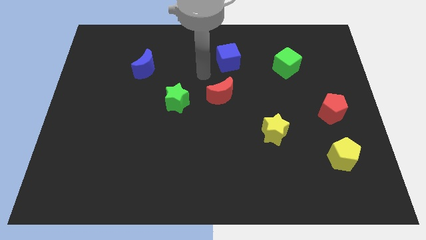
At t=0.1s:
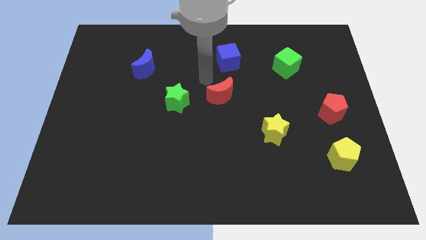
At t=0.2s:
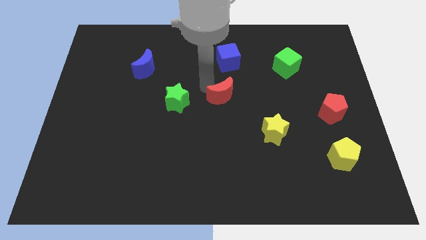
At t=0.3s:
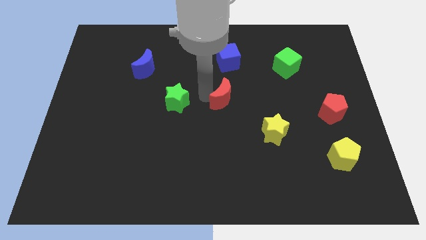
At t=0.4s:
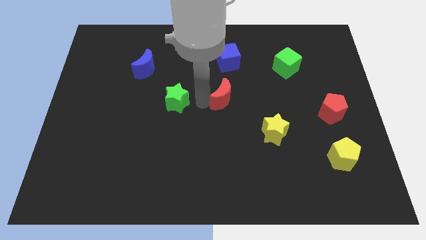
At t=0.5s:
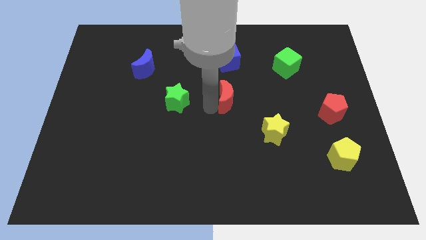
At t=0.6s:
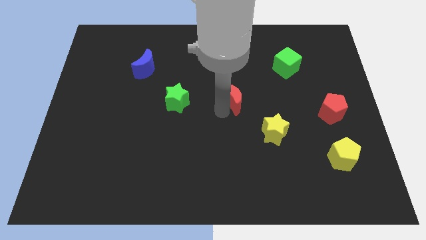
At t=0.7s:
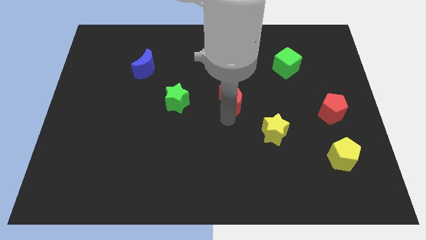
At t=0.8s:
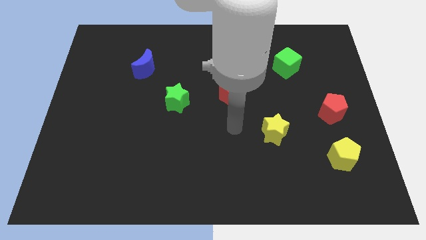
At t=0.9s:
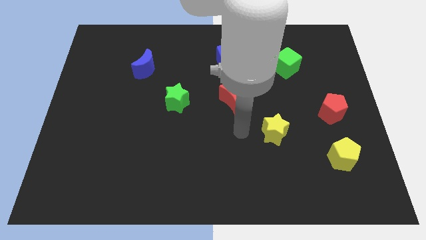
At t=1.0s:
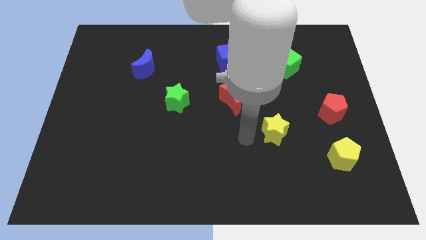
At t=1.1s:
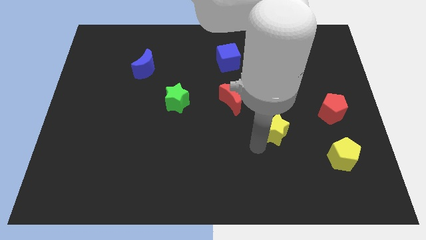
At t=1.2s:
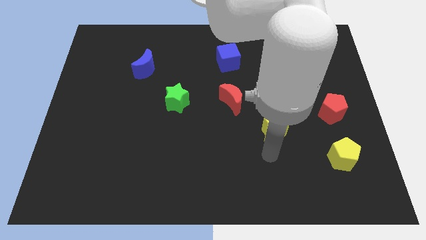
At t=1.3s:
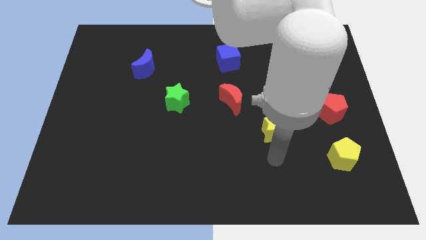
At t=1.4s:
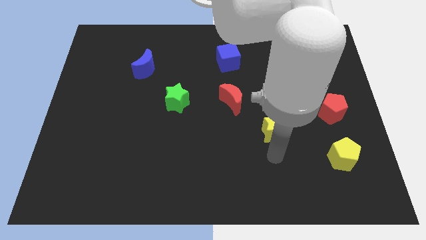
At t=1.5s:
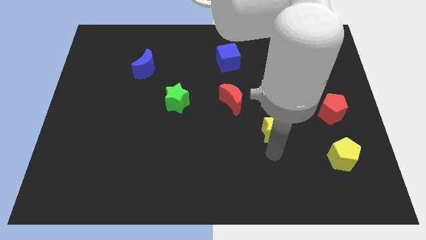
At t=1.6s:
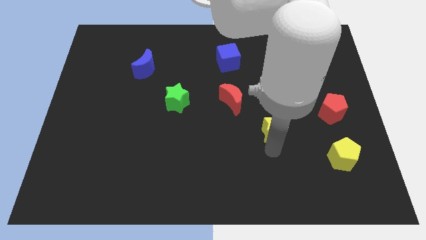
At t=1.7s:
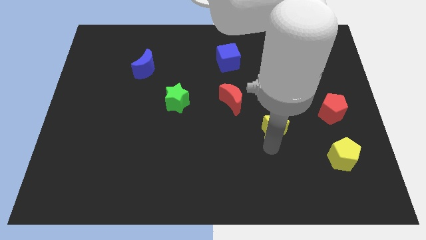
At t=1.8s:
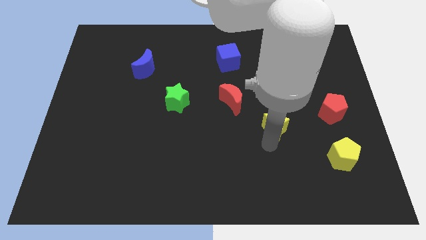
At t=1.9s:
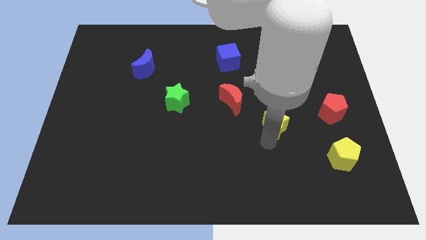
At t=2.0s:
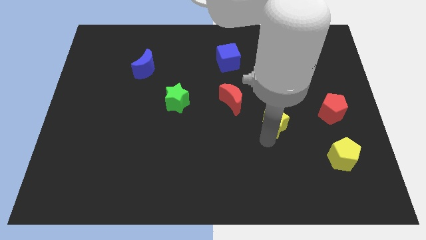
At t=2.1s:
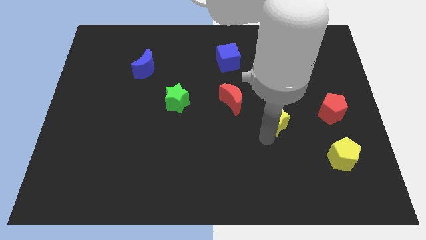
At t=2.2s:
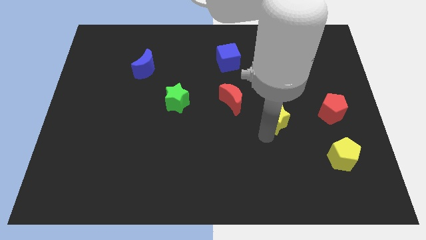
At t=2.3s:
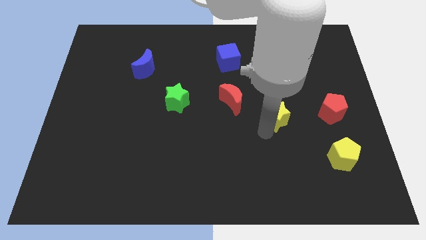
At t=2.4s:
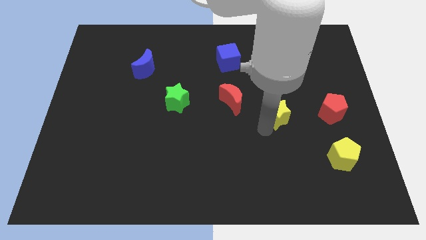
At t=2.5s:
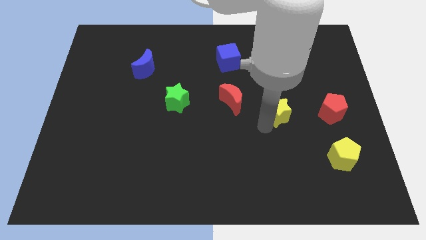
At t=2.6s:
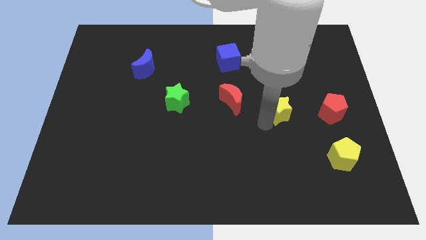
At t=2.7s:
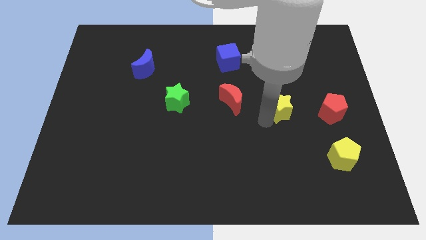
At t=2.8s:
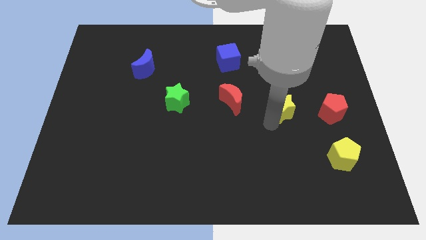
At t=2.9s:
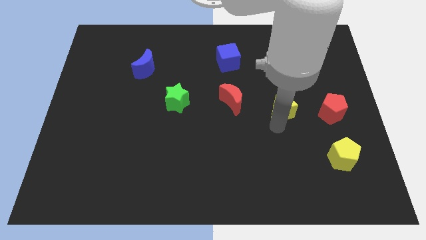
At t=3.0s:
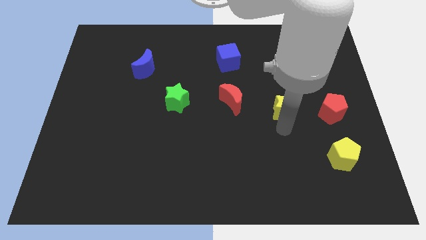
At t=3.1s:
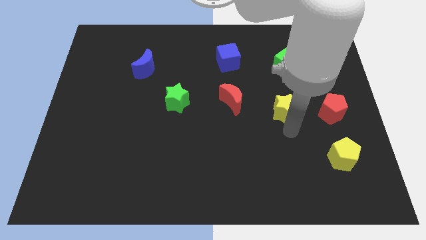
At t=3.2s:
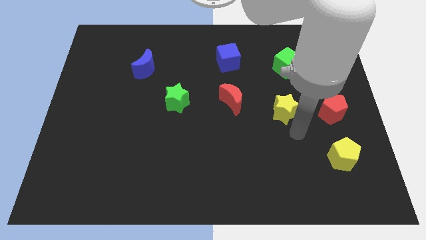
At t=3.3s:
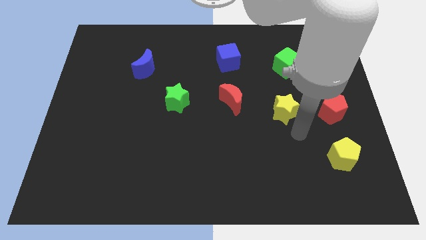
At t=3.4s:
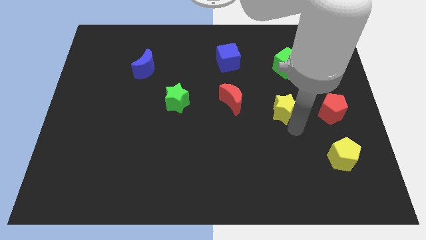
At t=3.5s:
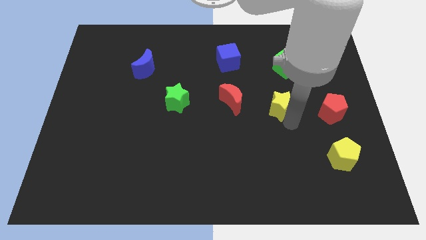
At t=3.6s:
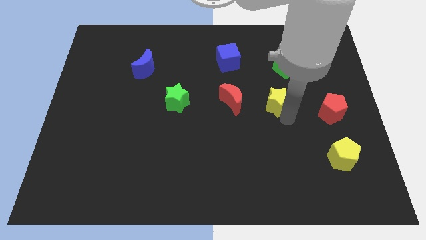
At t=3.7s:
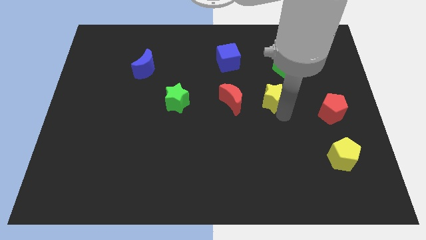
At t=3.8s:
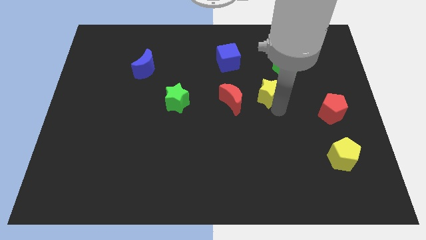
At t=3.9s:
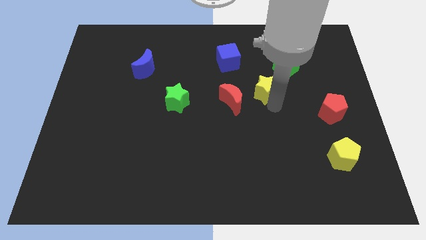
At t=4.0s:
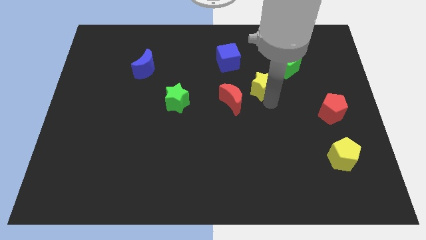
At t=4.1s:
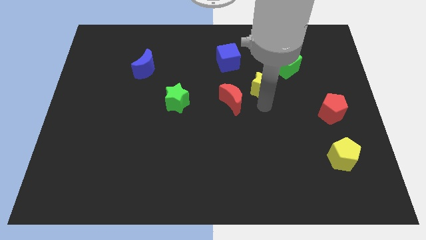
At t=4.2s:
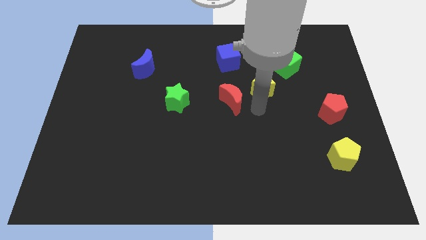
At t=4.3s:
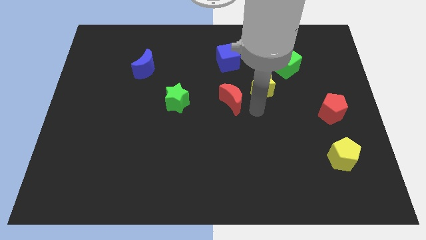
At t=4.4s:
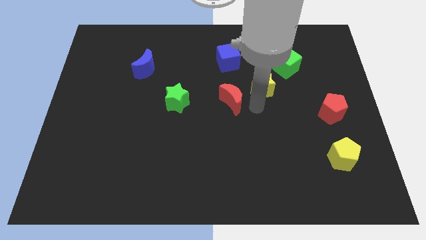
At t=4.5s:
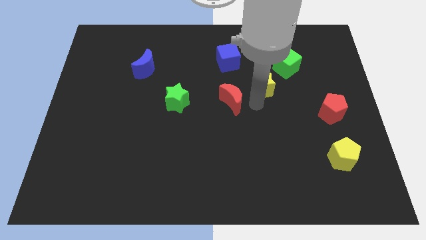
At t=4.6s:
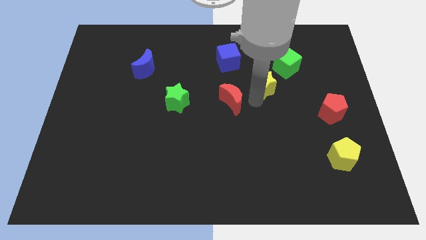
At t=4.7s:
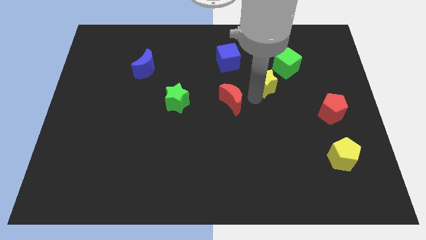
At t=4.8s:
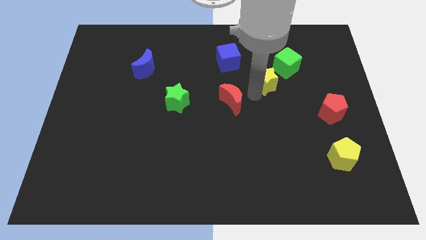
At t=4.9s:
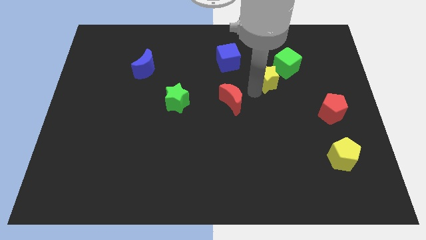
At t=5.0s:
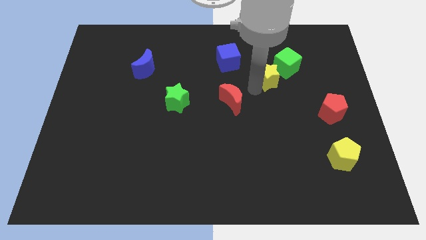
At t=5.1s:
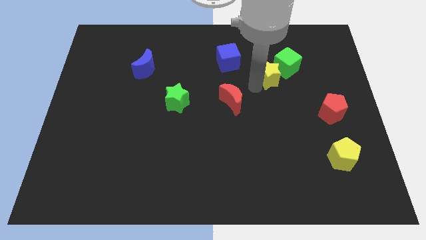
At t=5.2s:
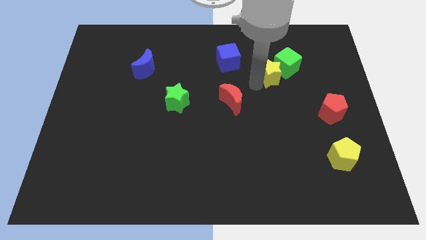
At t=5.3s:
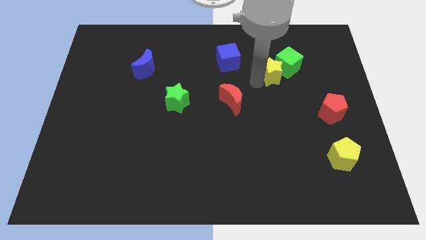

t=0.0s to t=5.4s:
push the yellow star right of the blue cube

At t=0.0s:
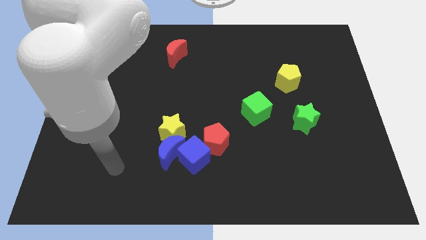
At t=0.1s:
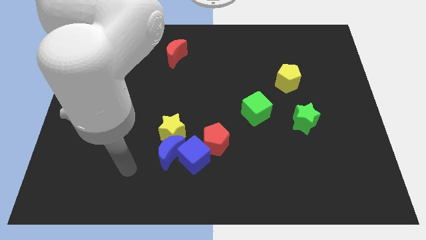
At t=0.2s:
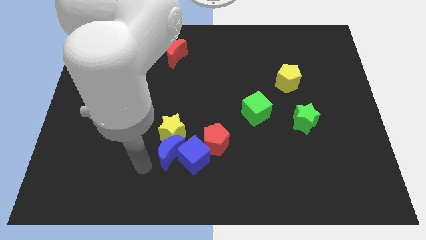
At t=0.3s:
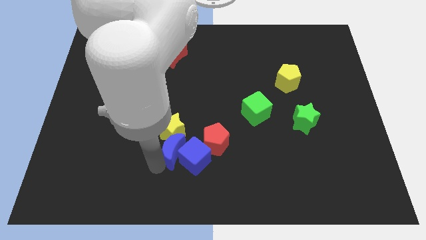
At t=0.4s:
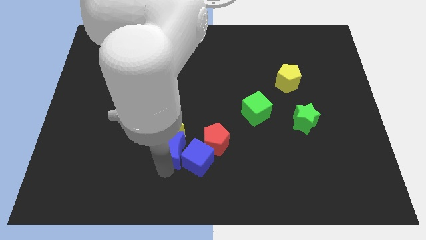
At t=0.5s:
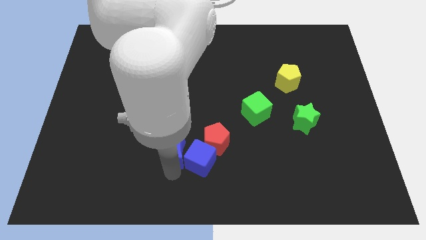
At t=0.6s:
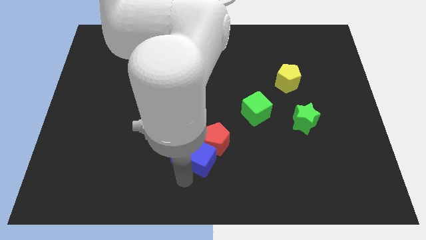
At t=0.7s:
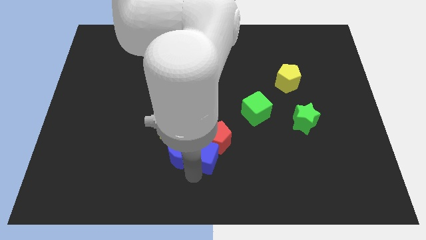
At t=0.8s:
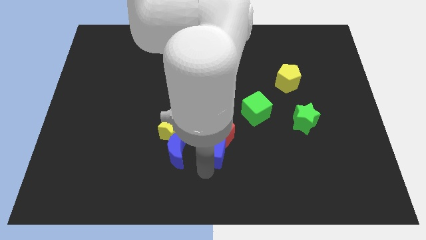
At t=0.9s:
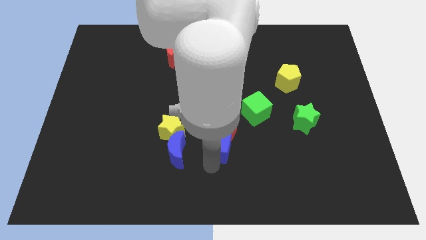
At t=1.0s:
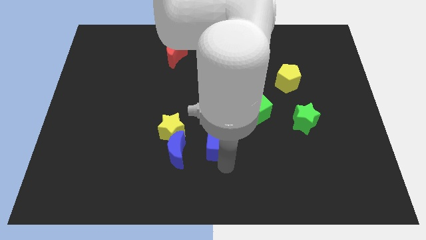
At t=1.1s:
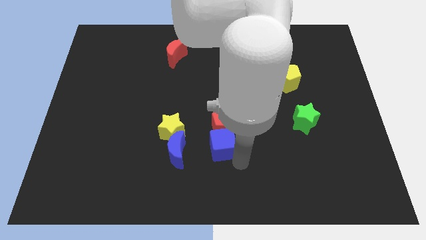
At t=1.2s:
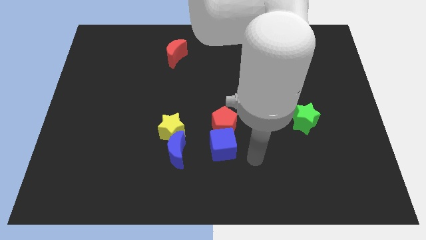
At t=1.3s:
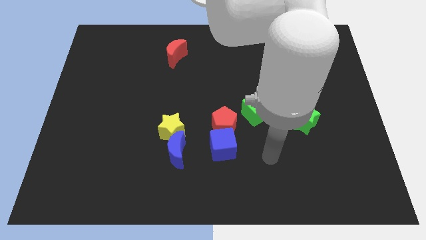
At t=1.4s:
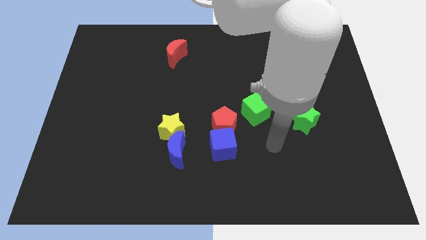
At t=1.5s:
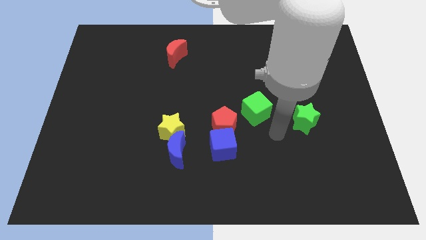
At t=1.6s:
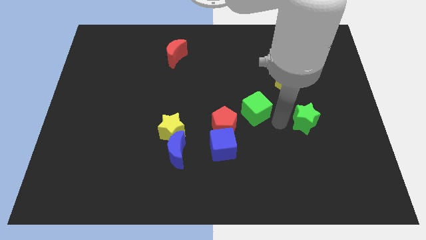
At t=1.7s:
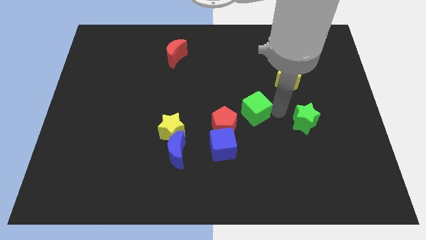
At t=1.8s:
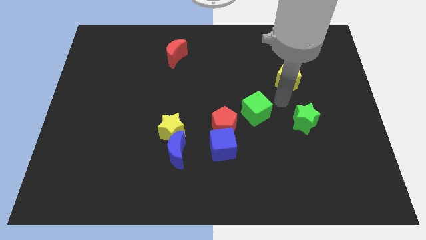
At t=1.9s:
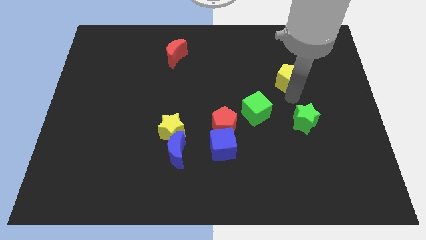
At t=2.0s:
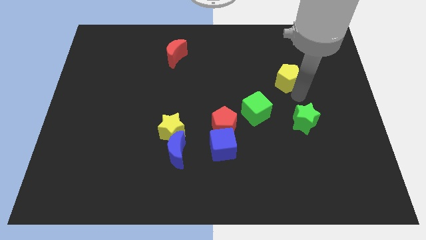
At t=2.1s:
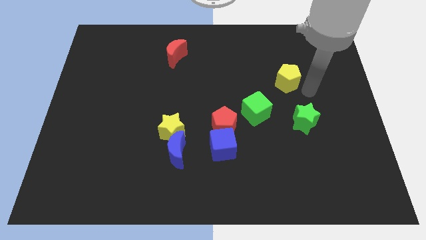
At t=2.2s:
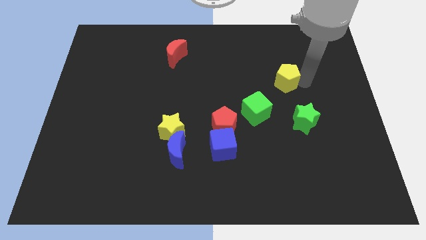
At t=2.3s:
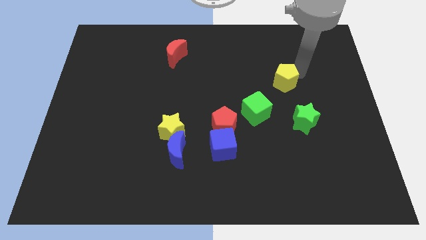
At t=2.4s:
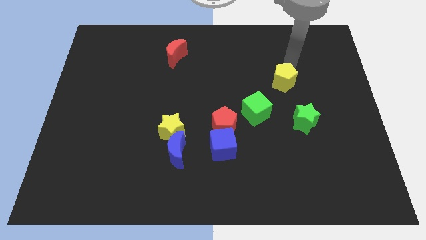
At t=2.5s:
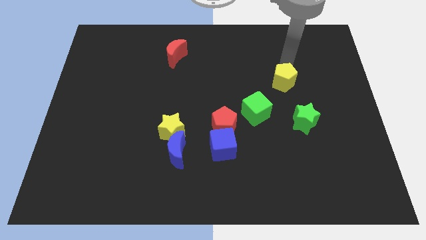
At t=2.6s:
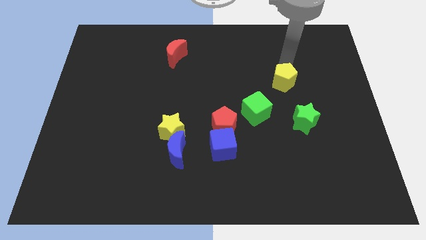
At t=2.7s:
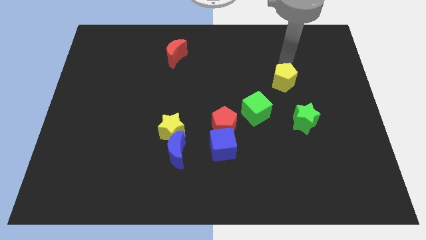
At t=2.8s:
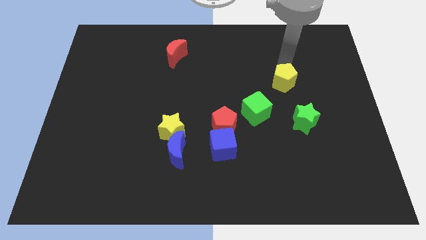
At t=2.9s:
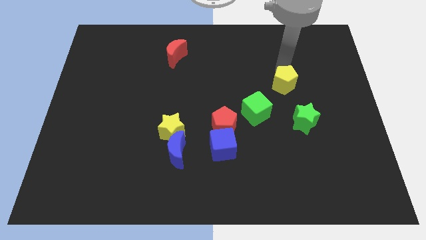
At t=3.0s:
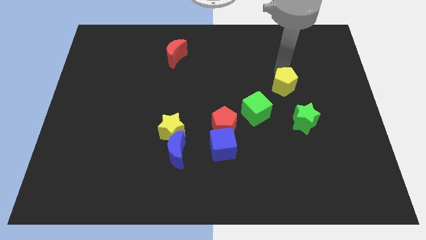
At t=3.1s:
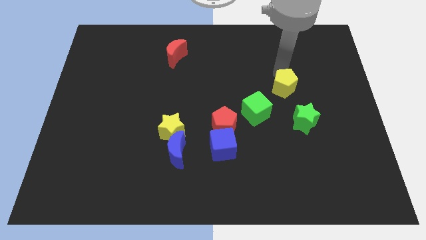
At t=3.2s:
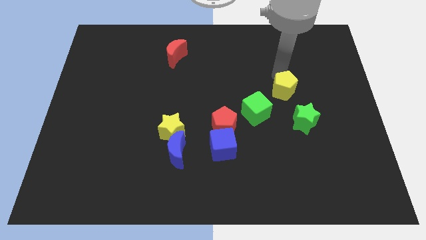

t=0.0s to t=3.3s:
put the yellow pentagon diagonally up and to the left of the green star
